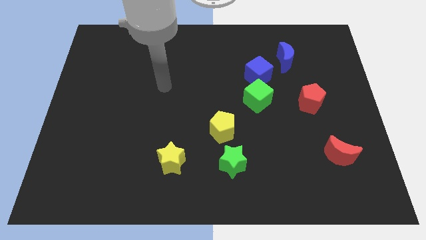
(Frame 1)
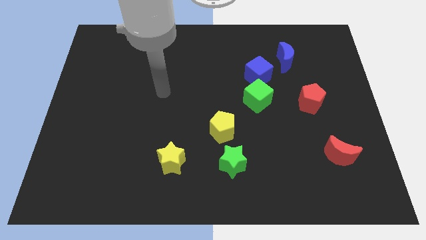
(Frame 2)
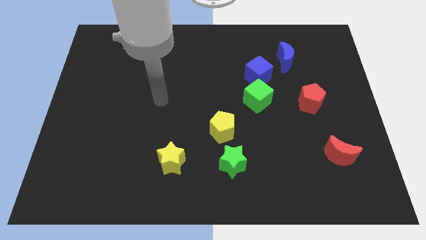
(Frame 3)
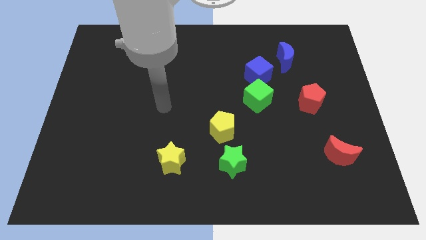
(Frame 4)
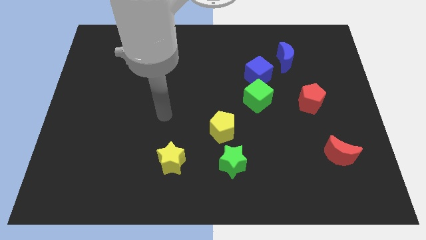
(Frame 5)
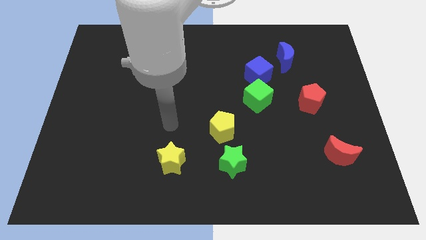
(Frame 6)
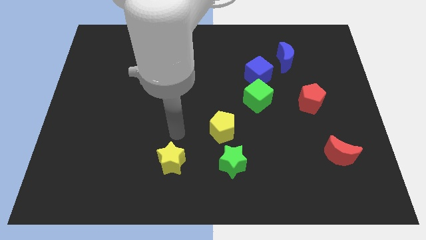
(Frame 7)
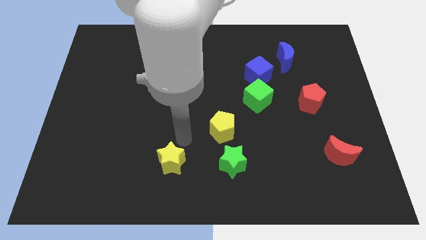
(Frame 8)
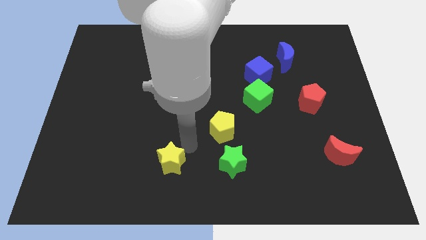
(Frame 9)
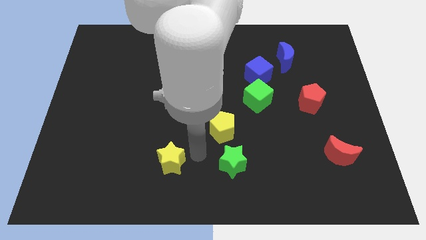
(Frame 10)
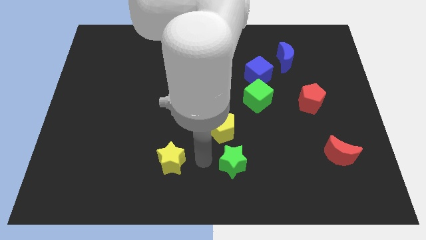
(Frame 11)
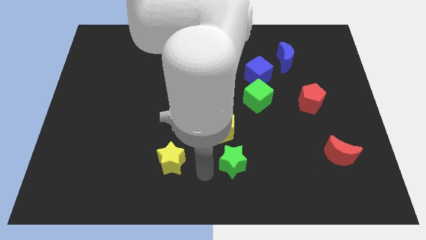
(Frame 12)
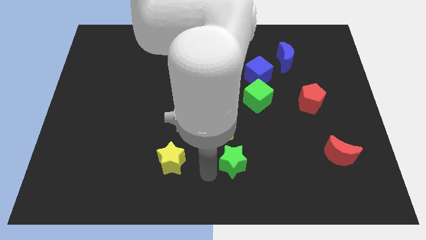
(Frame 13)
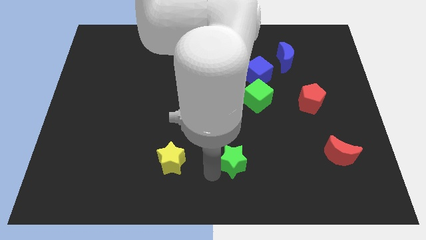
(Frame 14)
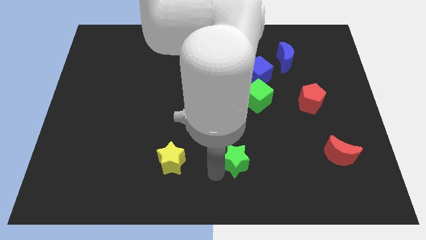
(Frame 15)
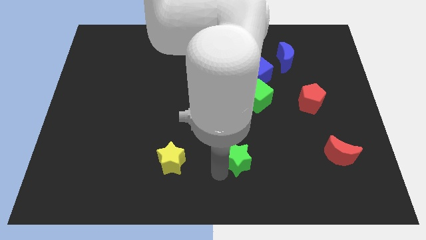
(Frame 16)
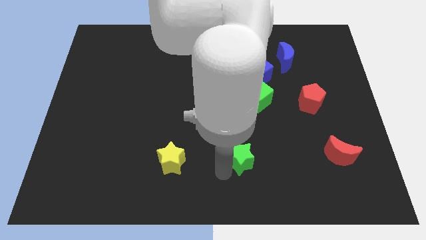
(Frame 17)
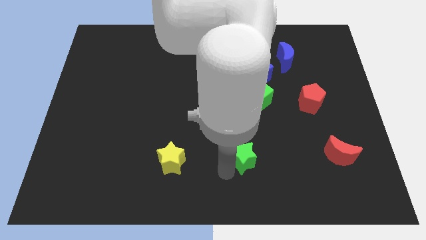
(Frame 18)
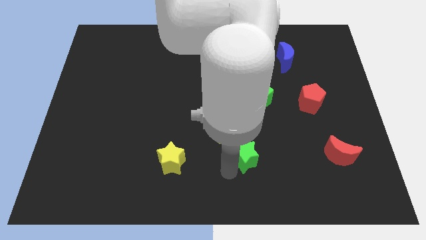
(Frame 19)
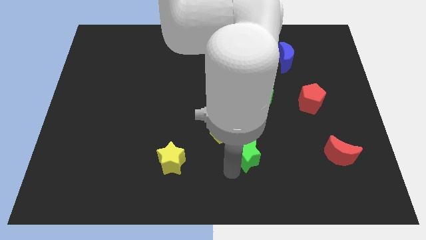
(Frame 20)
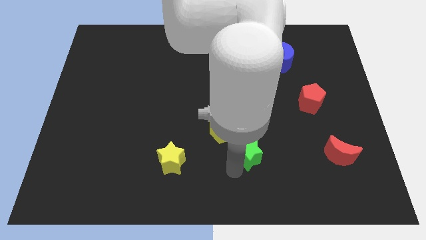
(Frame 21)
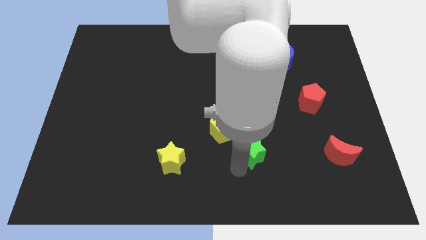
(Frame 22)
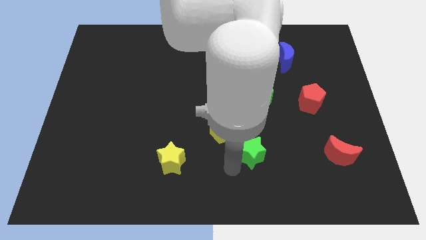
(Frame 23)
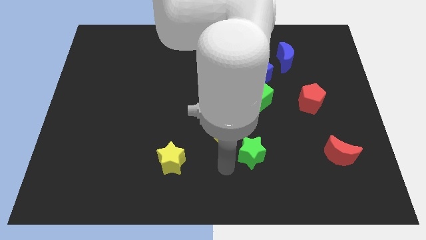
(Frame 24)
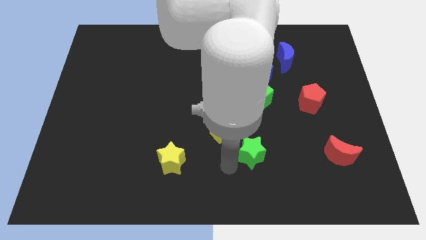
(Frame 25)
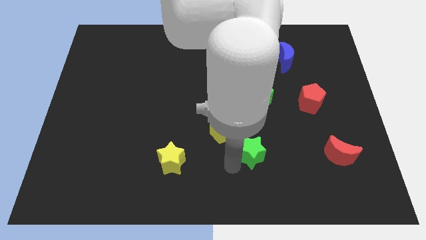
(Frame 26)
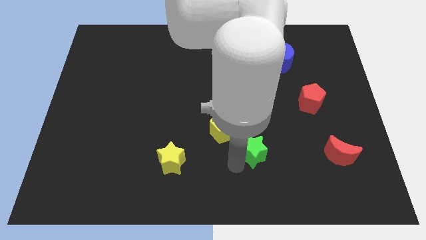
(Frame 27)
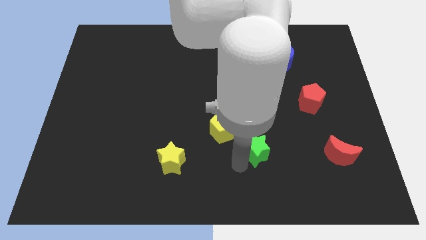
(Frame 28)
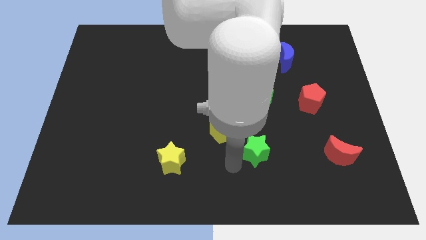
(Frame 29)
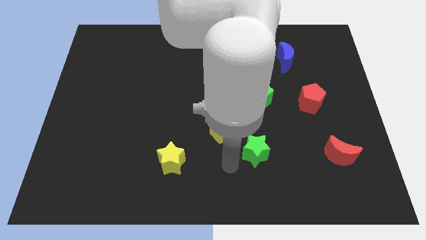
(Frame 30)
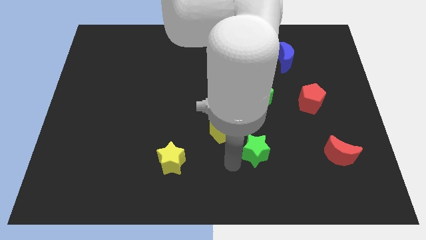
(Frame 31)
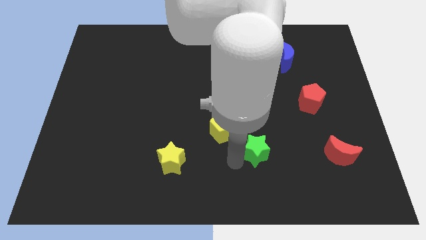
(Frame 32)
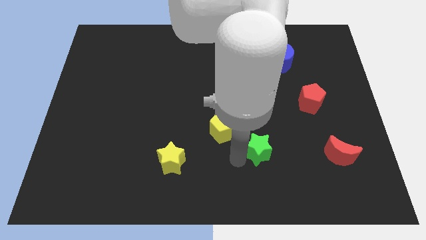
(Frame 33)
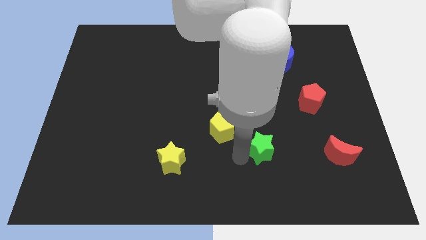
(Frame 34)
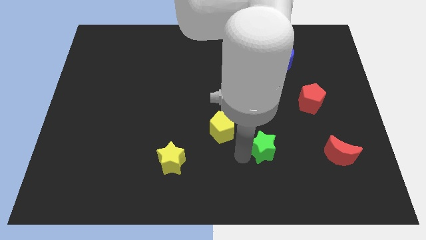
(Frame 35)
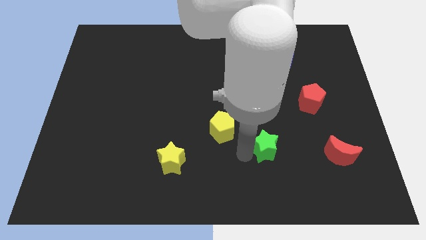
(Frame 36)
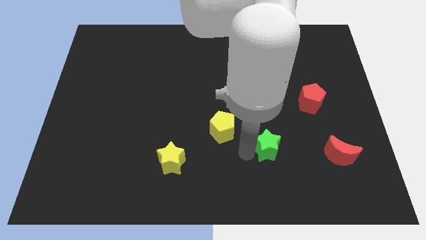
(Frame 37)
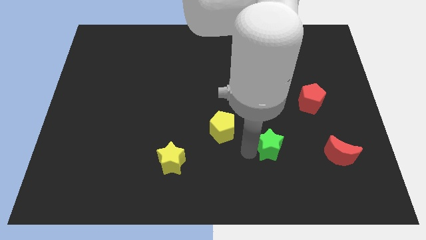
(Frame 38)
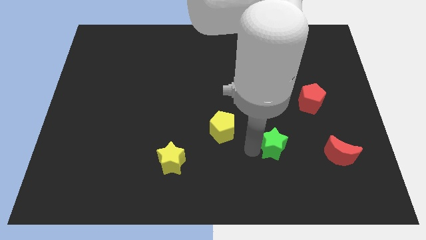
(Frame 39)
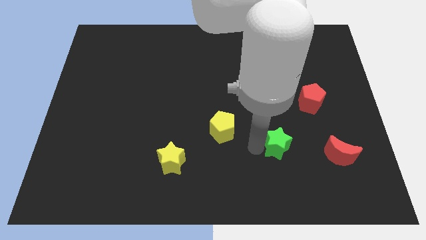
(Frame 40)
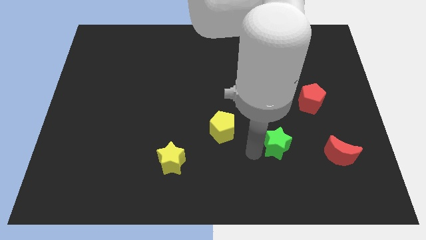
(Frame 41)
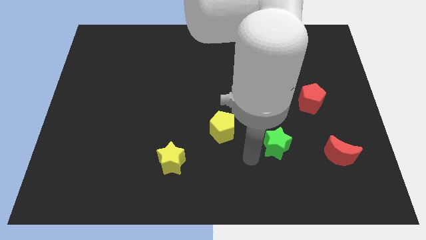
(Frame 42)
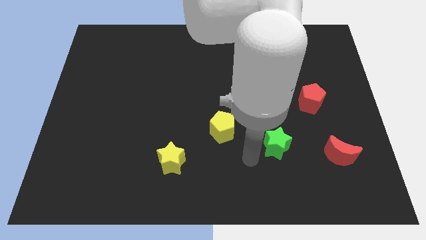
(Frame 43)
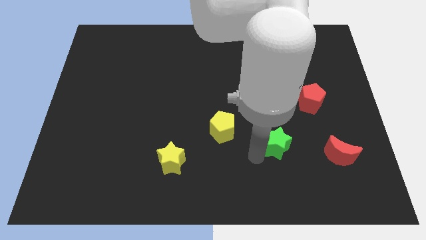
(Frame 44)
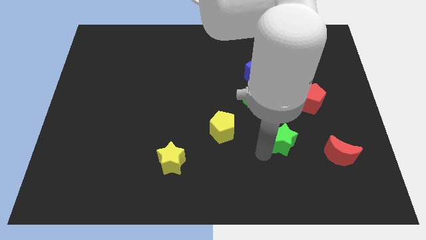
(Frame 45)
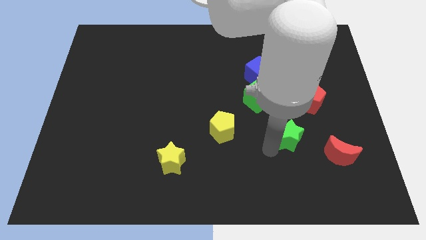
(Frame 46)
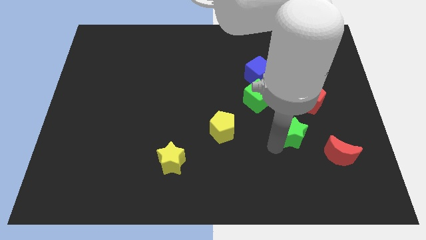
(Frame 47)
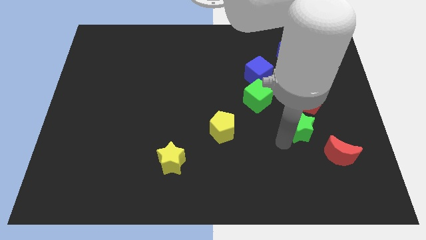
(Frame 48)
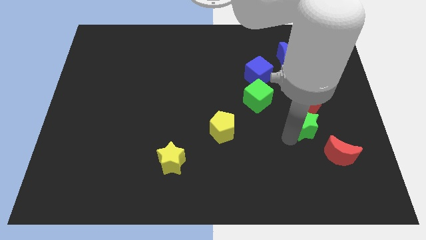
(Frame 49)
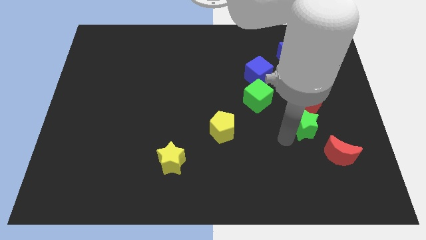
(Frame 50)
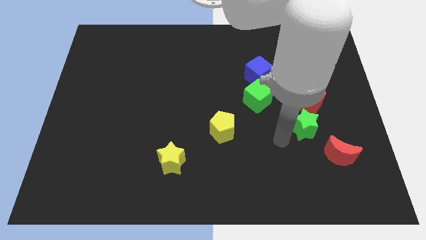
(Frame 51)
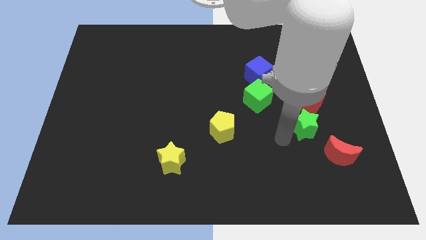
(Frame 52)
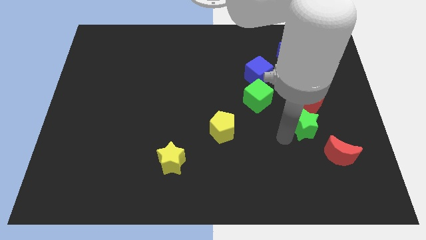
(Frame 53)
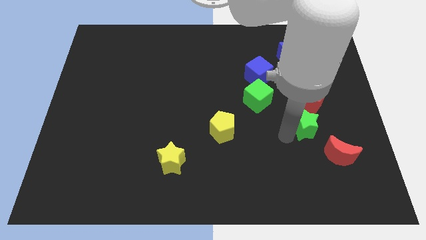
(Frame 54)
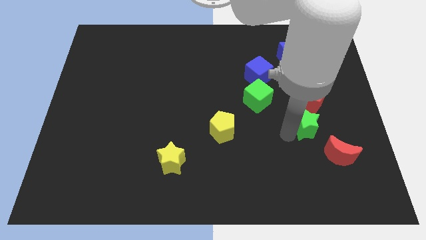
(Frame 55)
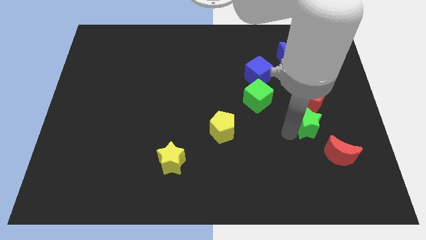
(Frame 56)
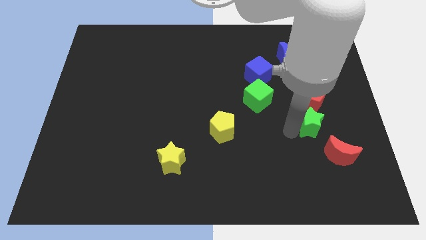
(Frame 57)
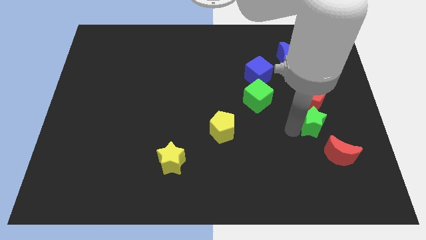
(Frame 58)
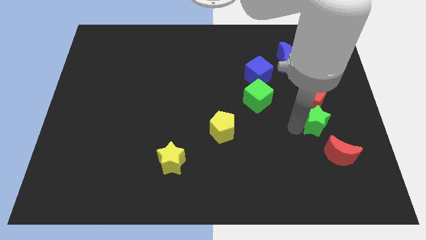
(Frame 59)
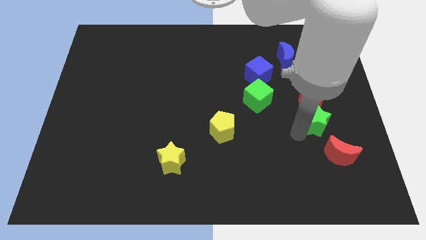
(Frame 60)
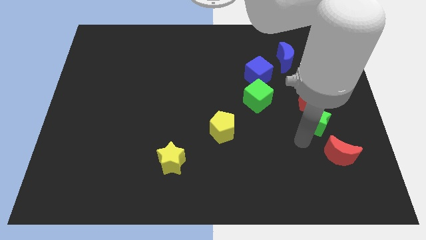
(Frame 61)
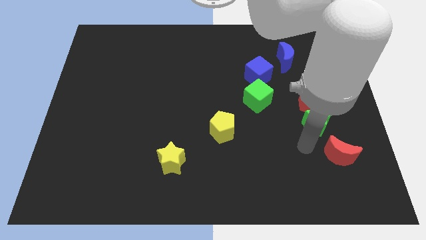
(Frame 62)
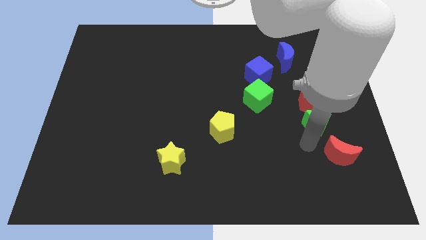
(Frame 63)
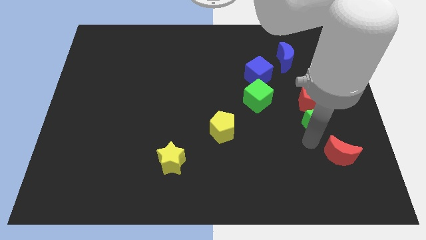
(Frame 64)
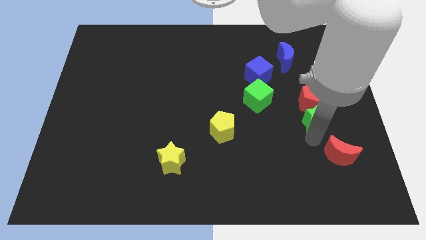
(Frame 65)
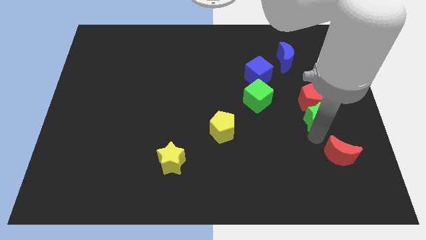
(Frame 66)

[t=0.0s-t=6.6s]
push the green star up and right diagonally

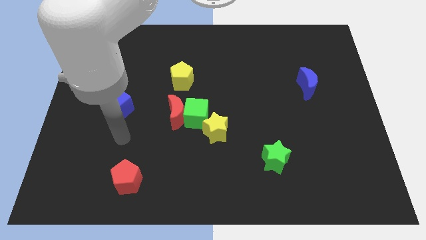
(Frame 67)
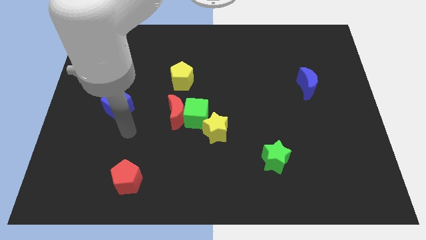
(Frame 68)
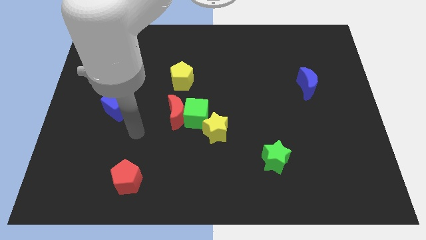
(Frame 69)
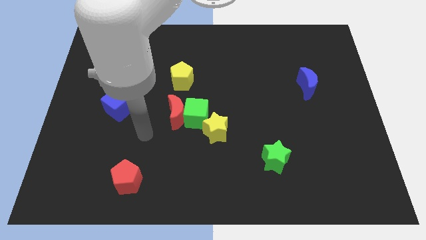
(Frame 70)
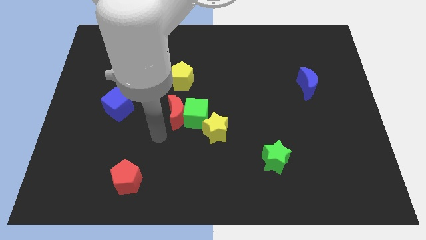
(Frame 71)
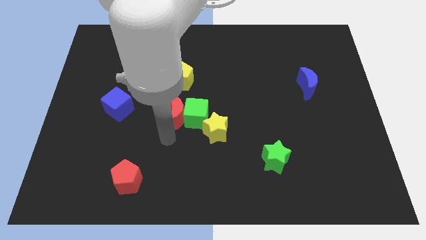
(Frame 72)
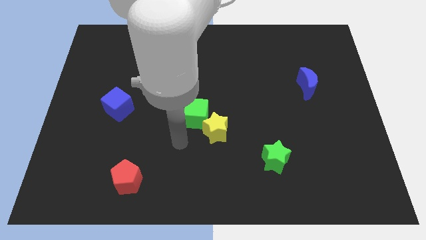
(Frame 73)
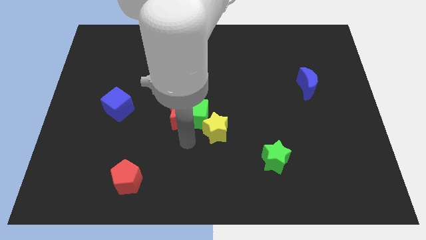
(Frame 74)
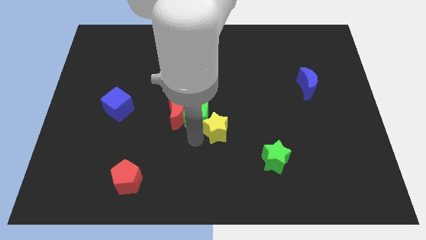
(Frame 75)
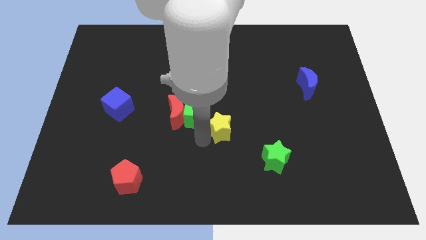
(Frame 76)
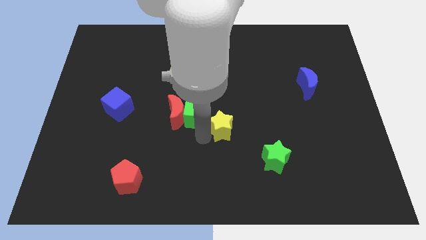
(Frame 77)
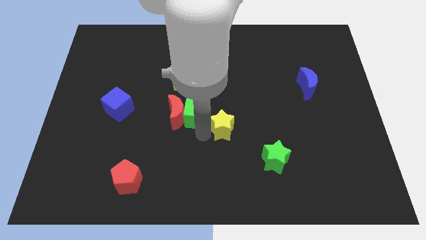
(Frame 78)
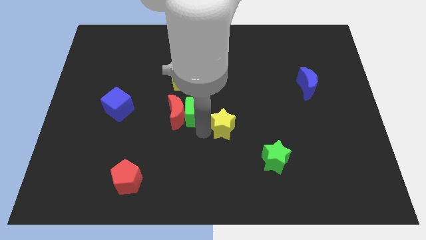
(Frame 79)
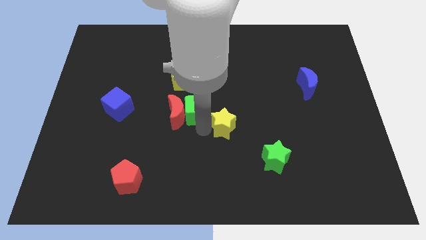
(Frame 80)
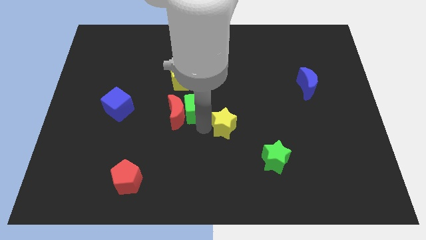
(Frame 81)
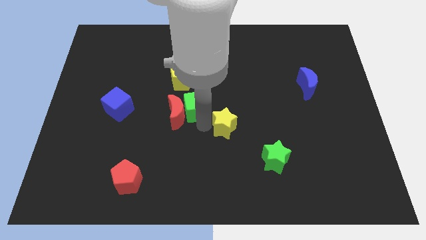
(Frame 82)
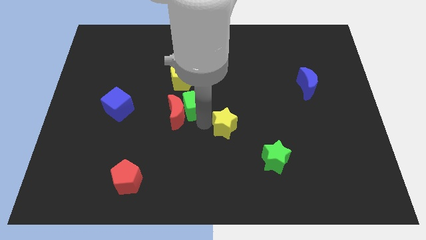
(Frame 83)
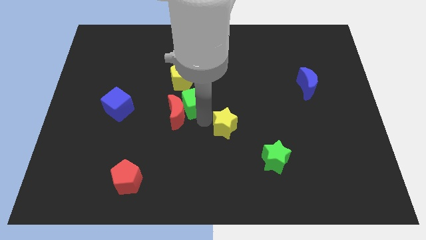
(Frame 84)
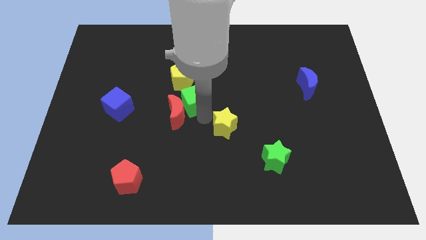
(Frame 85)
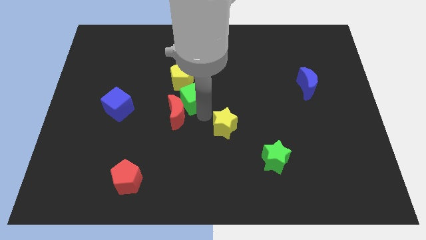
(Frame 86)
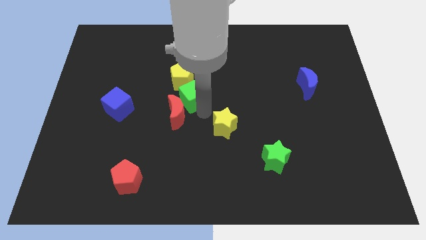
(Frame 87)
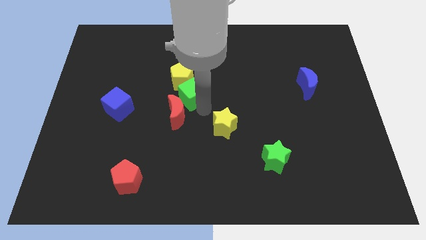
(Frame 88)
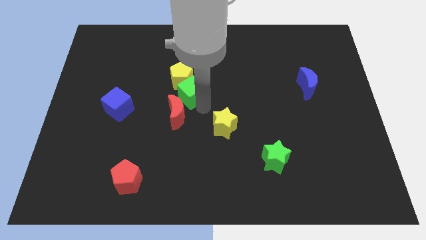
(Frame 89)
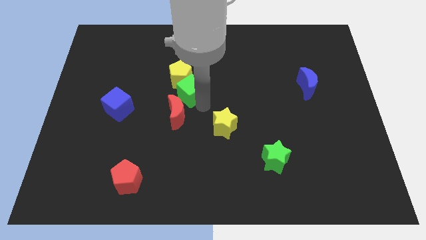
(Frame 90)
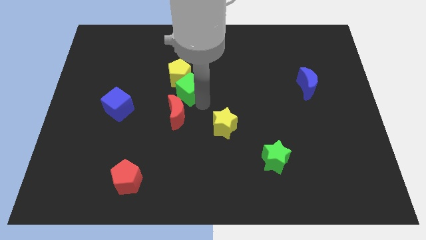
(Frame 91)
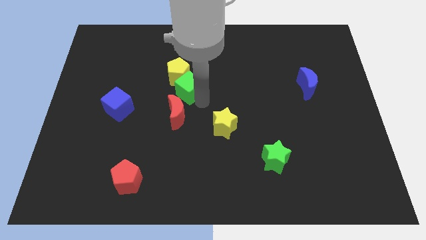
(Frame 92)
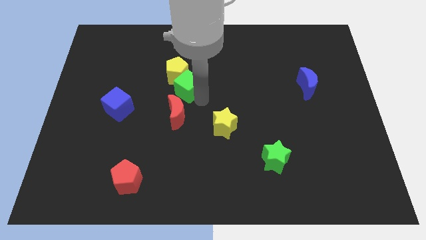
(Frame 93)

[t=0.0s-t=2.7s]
move the green cube diagonally upwards and to the left a bit
